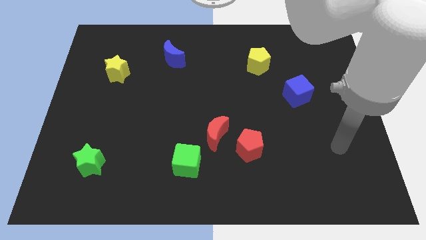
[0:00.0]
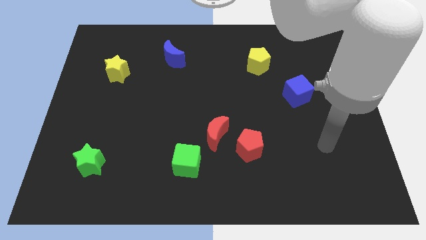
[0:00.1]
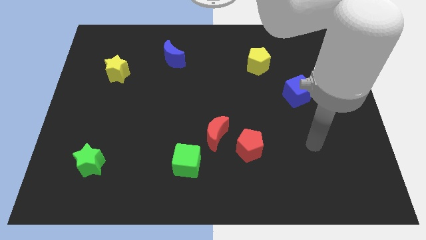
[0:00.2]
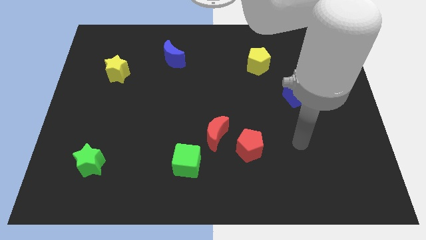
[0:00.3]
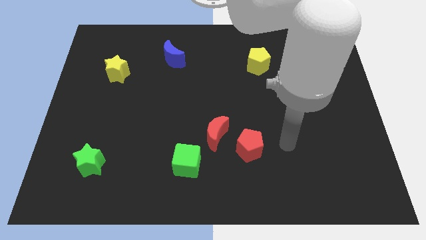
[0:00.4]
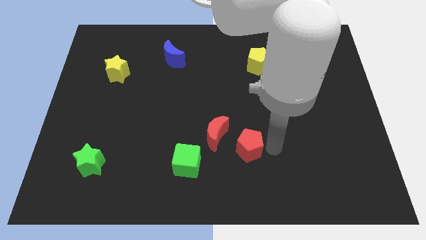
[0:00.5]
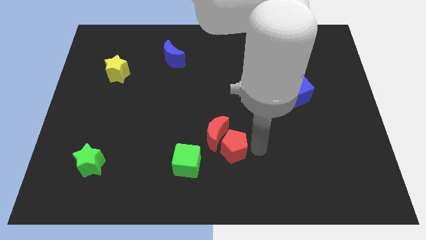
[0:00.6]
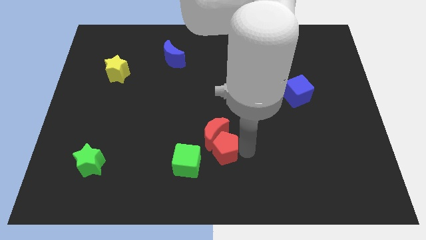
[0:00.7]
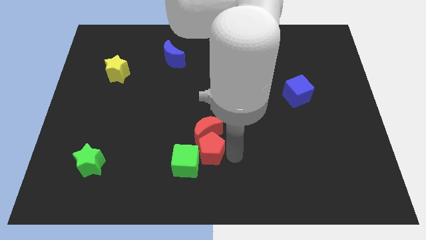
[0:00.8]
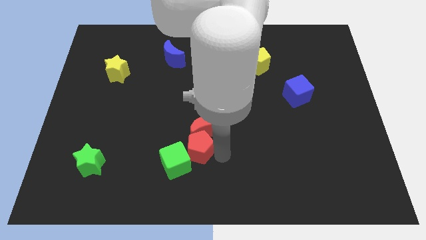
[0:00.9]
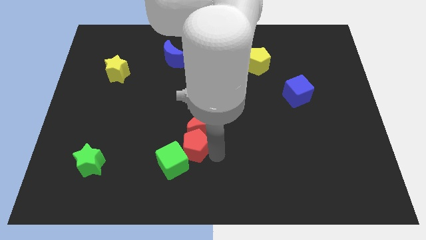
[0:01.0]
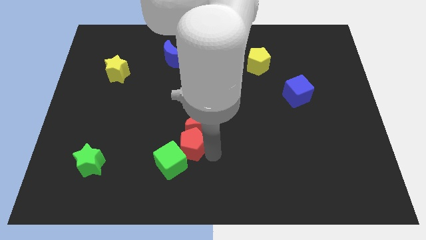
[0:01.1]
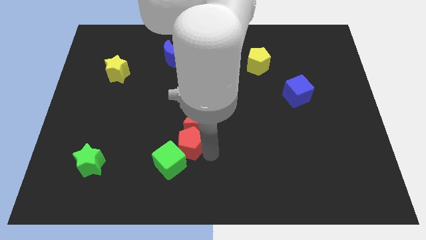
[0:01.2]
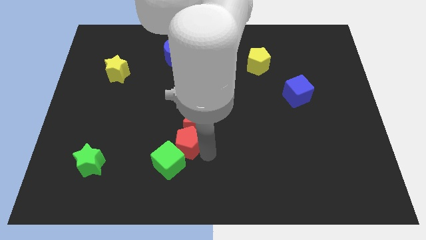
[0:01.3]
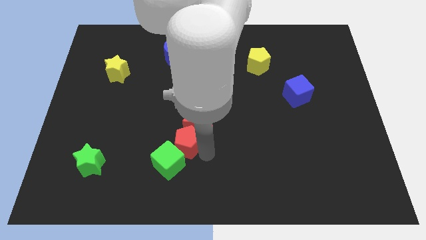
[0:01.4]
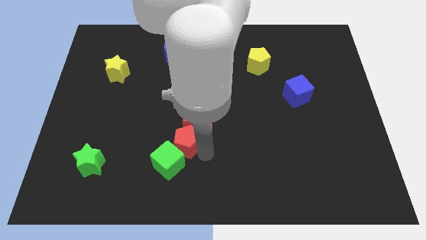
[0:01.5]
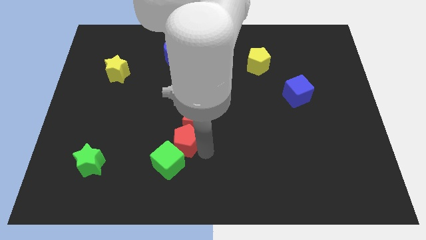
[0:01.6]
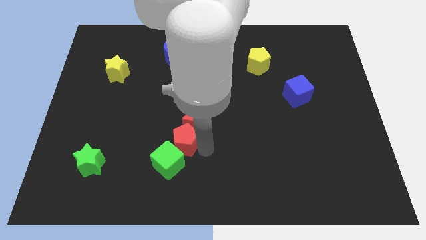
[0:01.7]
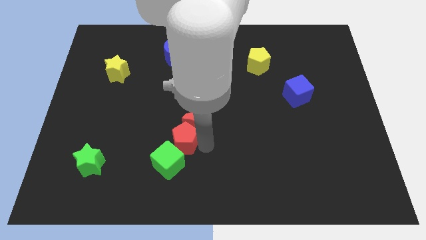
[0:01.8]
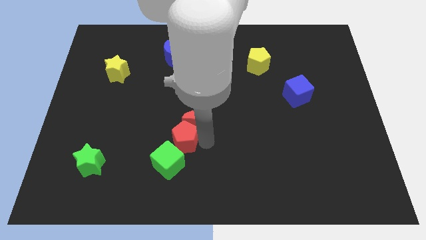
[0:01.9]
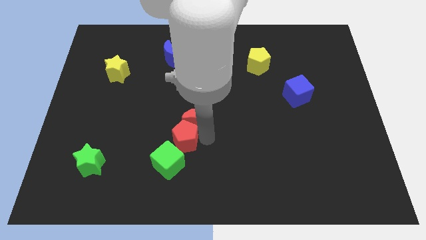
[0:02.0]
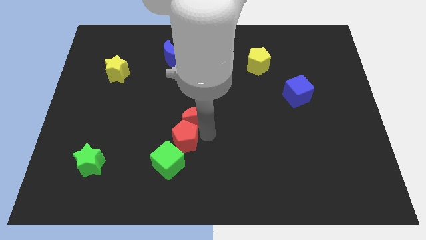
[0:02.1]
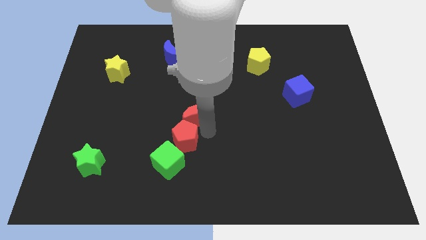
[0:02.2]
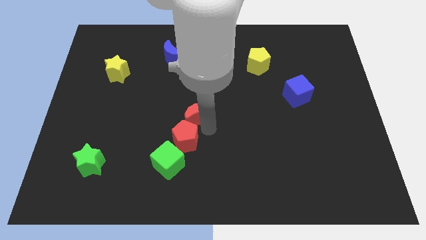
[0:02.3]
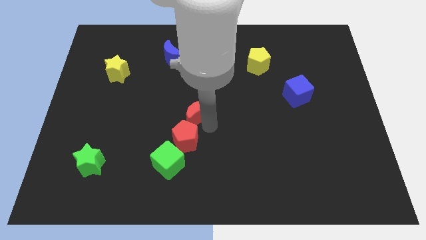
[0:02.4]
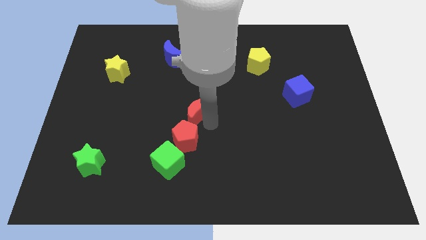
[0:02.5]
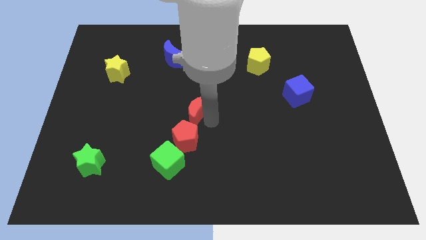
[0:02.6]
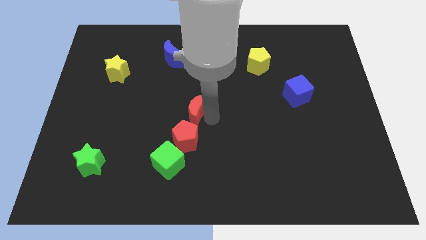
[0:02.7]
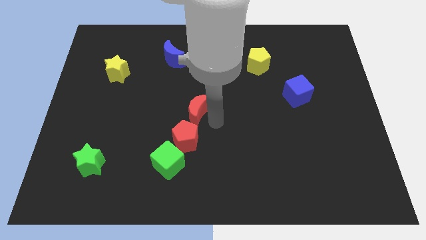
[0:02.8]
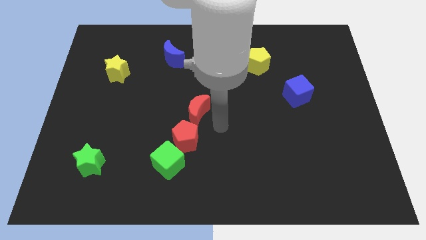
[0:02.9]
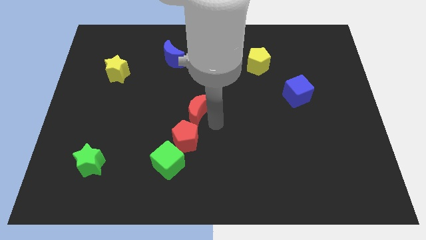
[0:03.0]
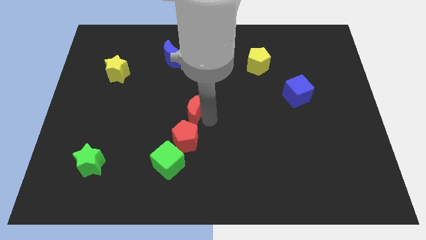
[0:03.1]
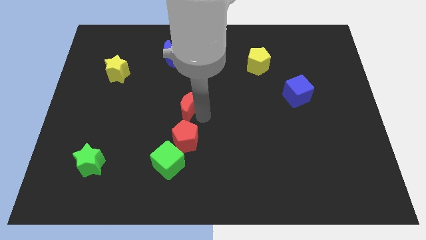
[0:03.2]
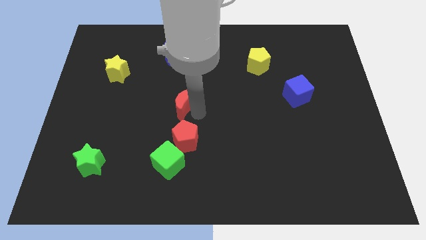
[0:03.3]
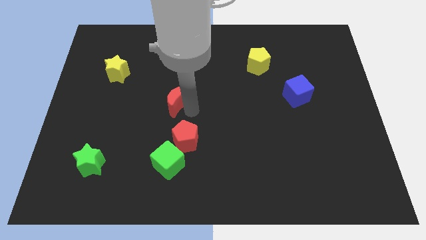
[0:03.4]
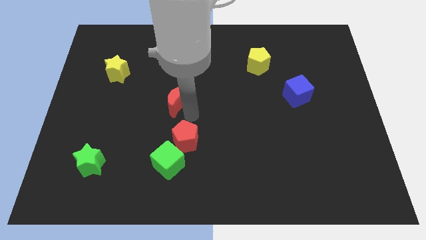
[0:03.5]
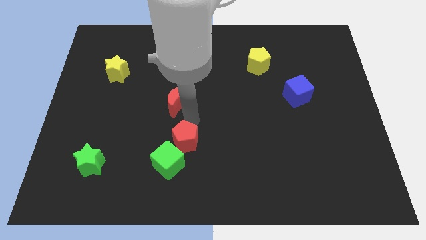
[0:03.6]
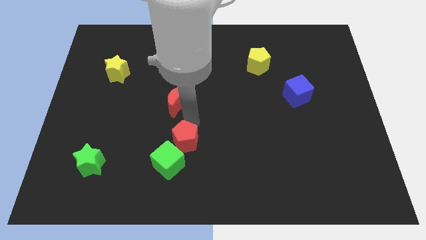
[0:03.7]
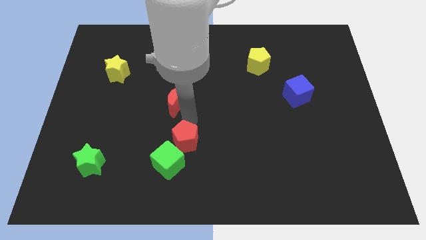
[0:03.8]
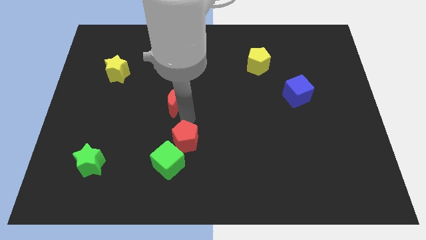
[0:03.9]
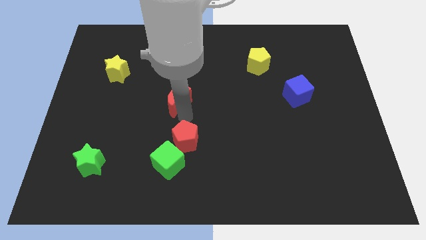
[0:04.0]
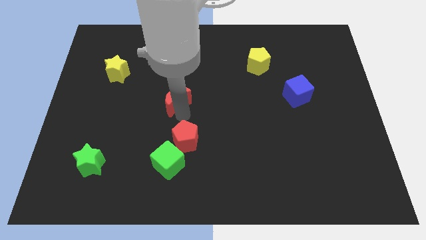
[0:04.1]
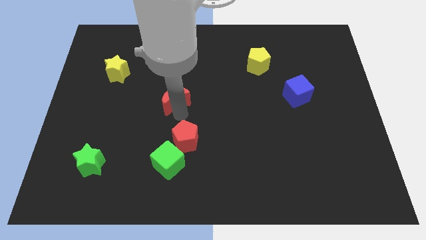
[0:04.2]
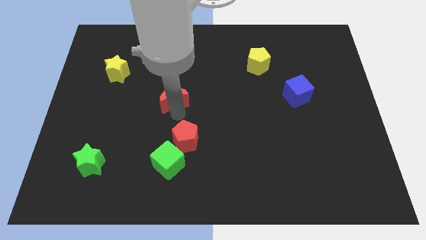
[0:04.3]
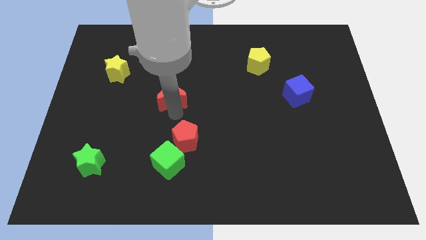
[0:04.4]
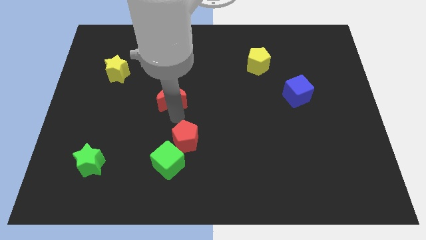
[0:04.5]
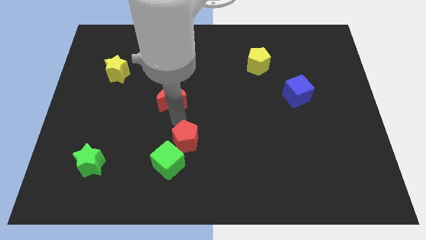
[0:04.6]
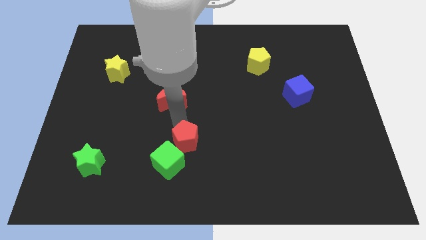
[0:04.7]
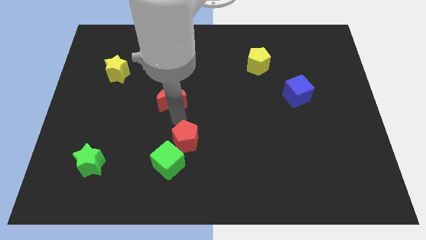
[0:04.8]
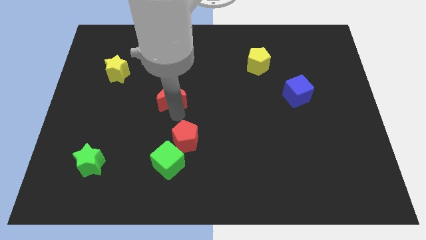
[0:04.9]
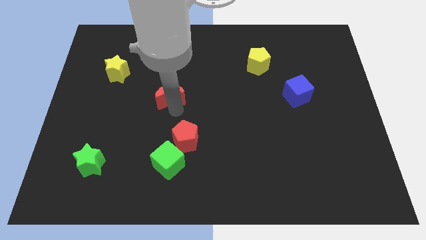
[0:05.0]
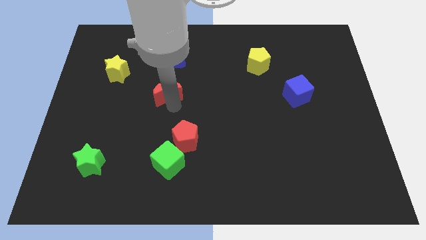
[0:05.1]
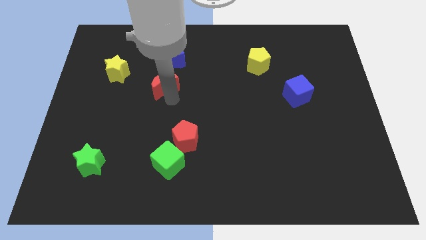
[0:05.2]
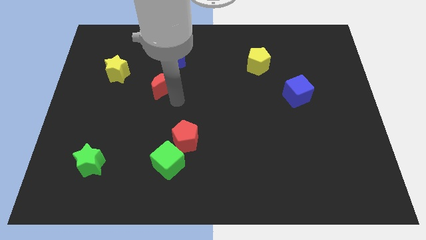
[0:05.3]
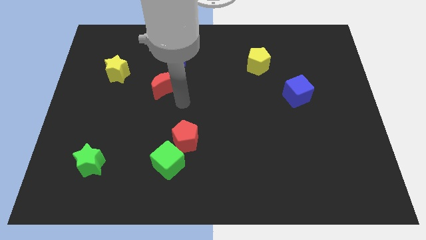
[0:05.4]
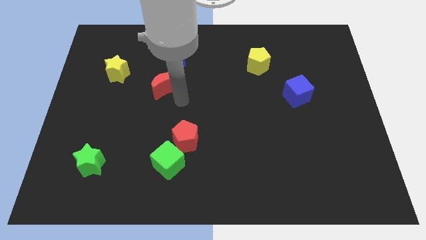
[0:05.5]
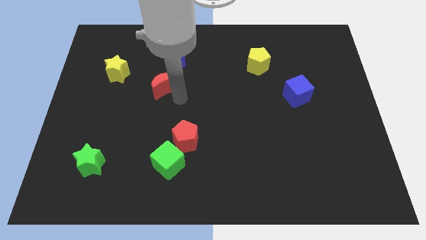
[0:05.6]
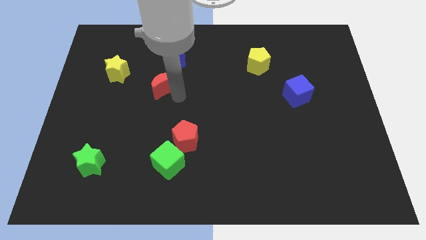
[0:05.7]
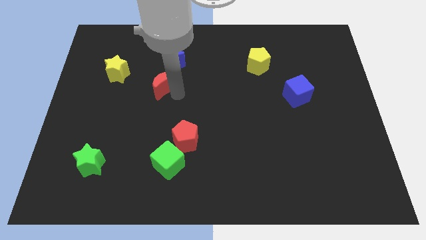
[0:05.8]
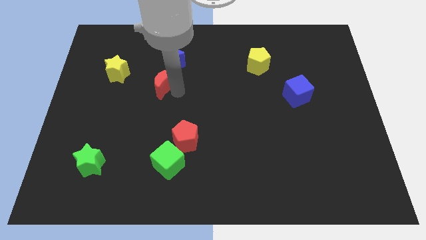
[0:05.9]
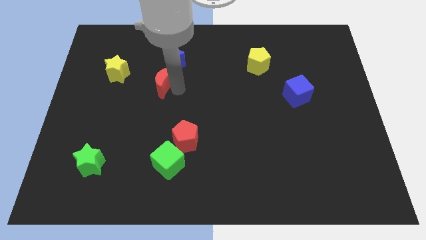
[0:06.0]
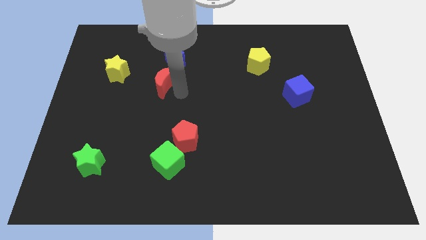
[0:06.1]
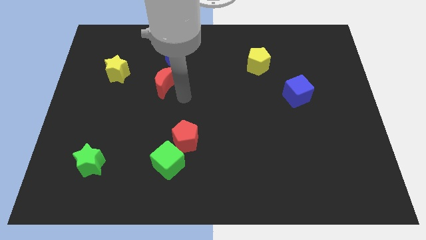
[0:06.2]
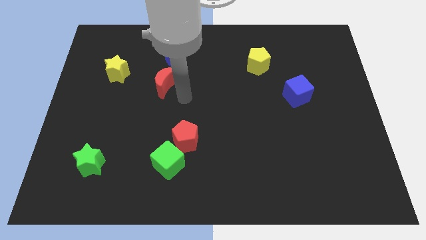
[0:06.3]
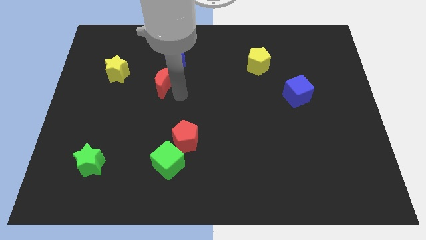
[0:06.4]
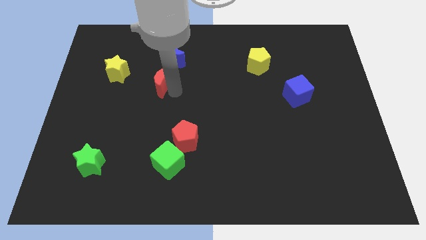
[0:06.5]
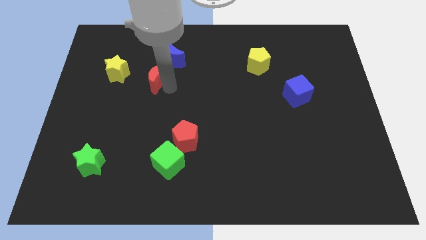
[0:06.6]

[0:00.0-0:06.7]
move the red moon up and to the left diagonally

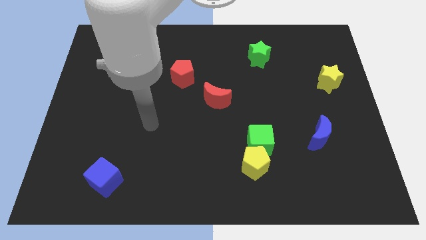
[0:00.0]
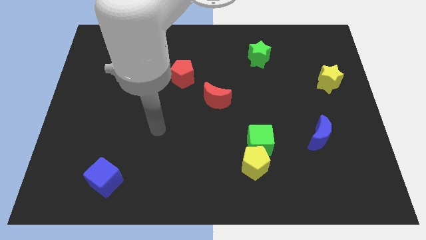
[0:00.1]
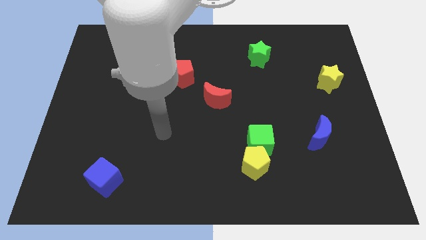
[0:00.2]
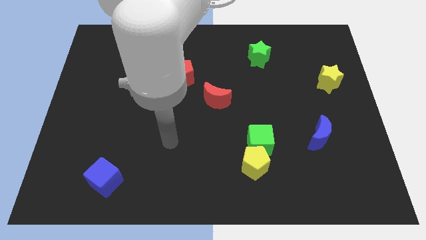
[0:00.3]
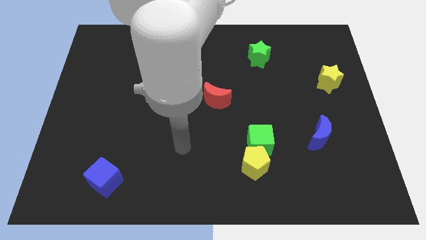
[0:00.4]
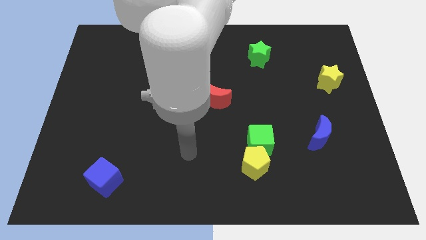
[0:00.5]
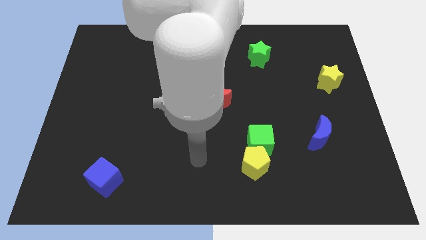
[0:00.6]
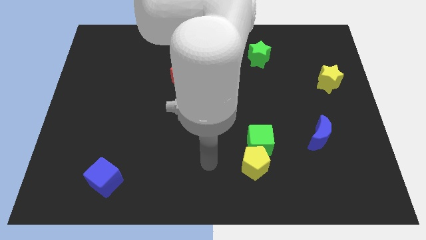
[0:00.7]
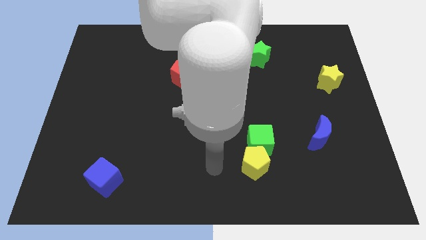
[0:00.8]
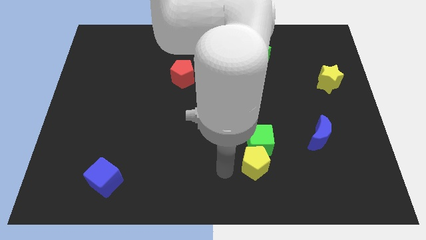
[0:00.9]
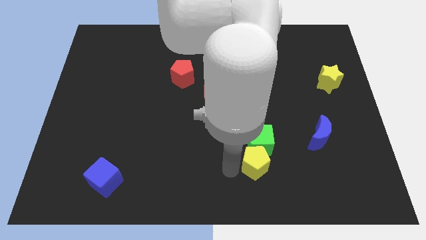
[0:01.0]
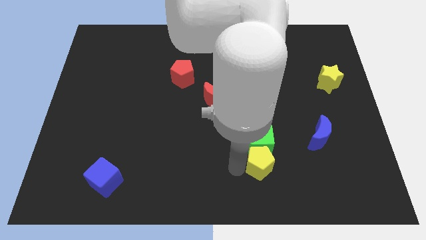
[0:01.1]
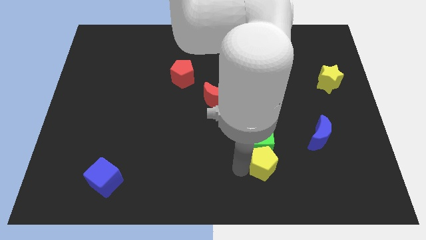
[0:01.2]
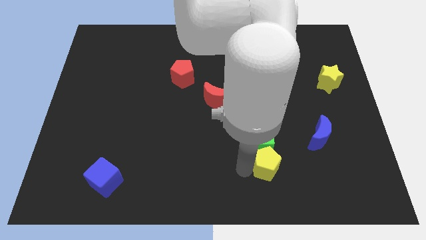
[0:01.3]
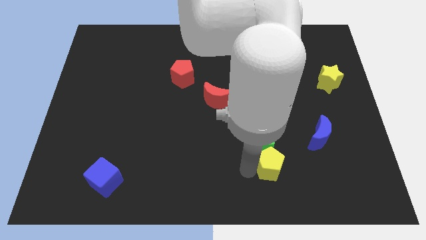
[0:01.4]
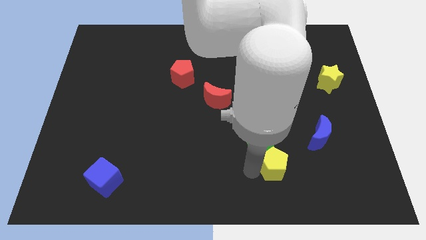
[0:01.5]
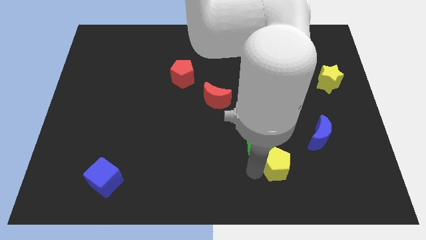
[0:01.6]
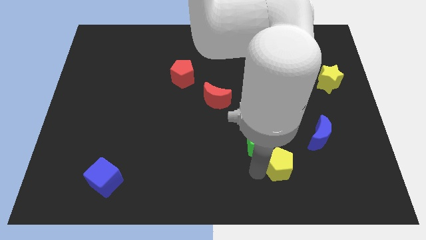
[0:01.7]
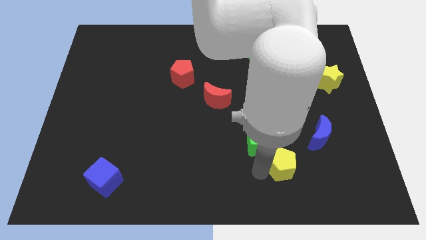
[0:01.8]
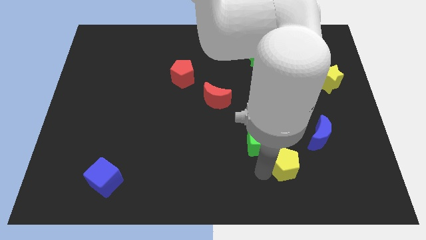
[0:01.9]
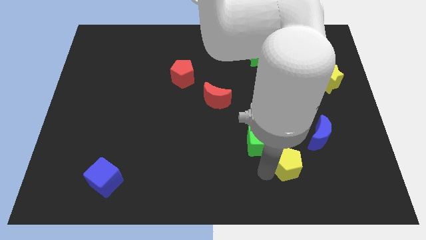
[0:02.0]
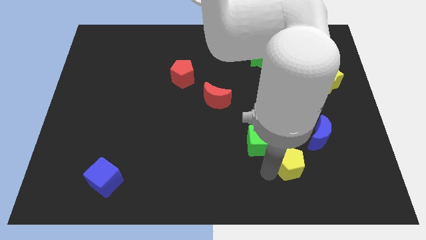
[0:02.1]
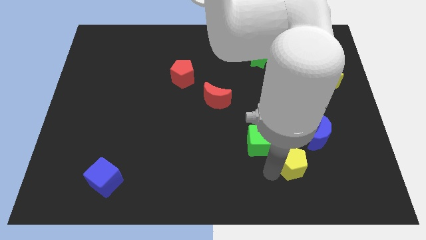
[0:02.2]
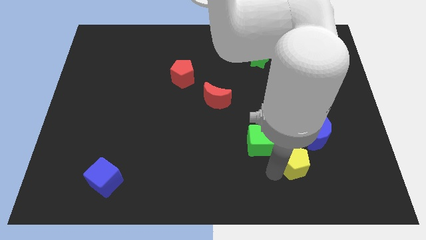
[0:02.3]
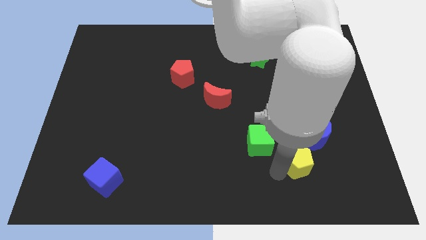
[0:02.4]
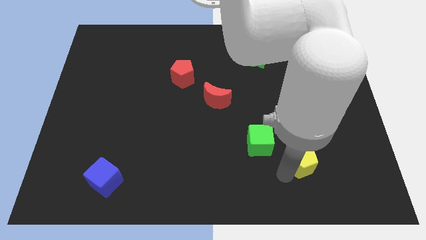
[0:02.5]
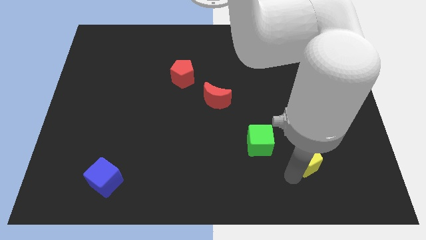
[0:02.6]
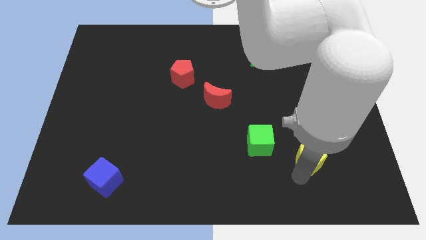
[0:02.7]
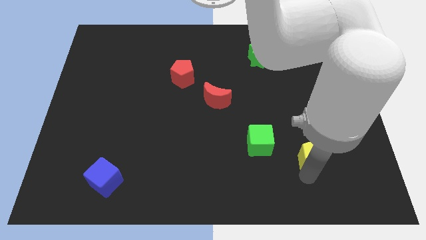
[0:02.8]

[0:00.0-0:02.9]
push the yellow pentagon somewhat upwards and right
